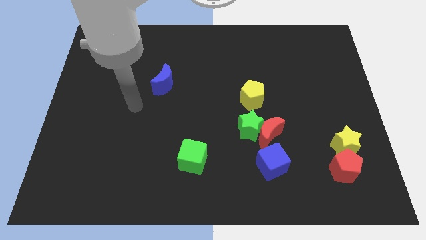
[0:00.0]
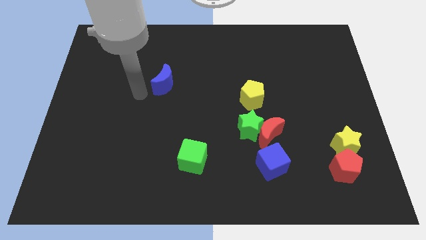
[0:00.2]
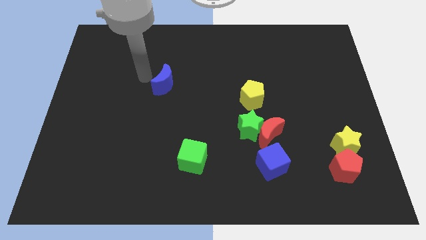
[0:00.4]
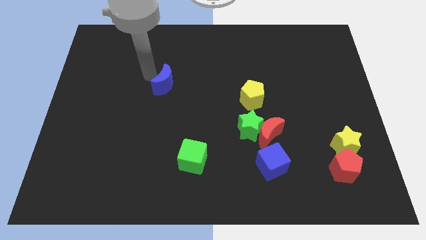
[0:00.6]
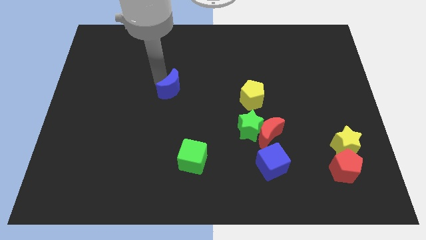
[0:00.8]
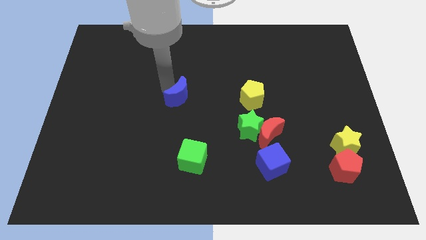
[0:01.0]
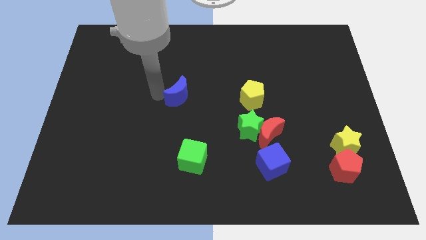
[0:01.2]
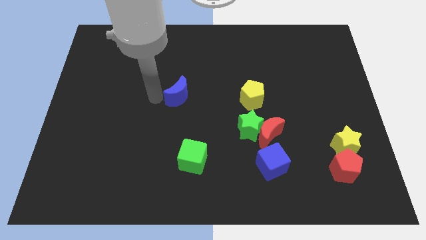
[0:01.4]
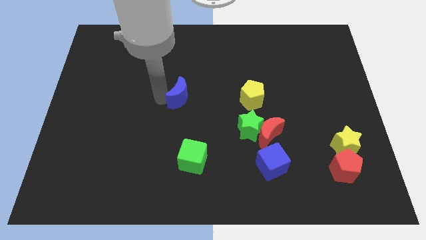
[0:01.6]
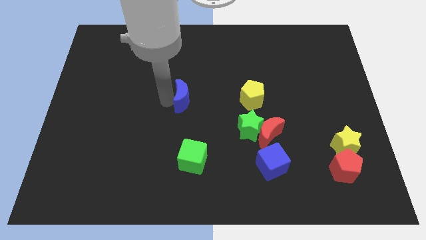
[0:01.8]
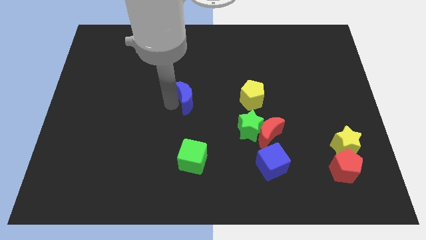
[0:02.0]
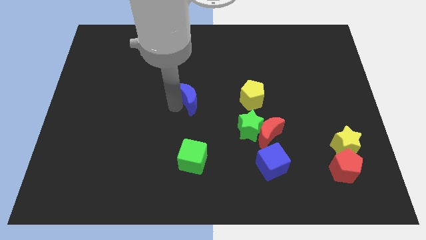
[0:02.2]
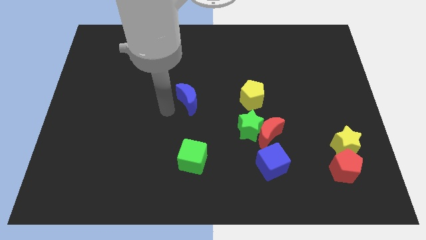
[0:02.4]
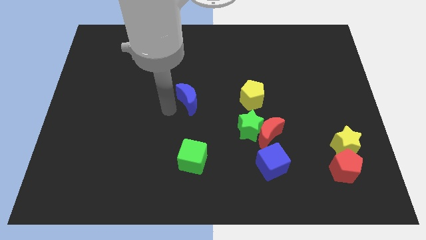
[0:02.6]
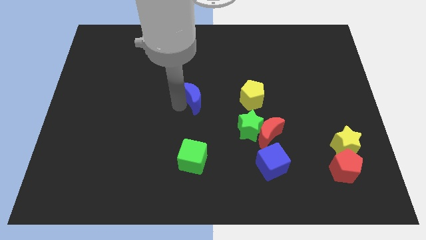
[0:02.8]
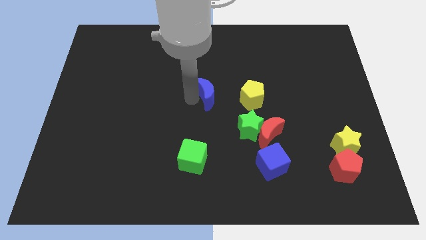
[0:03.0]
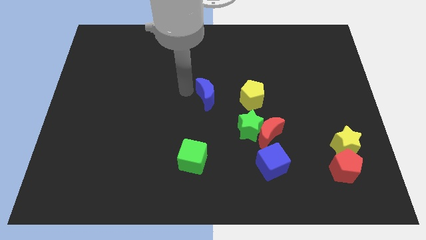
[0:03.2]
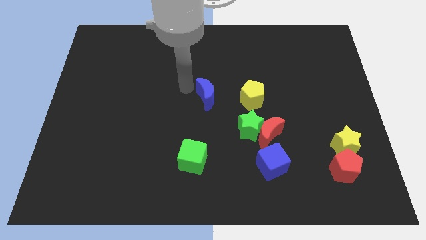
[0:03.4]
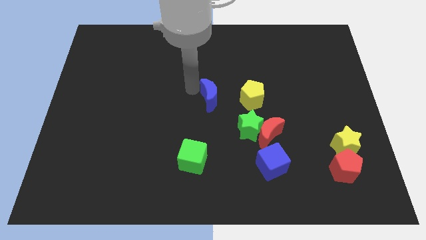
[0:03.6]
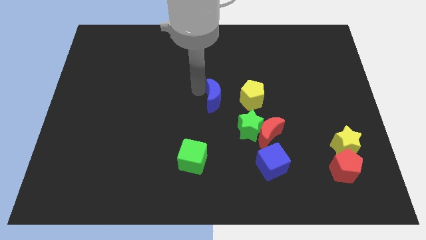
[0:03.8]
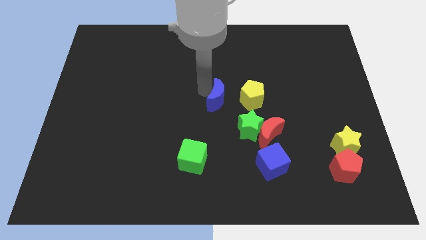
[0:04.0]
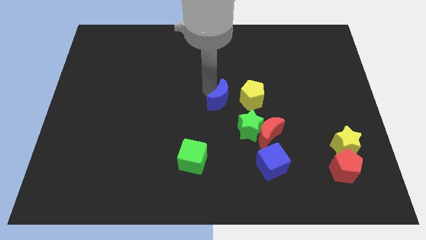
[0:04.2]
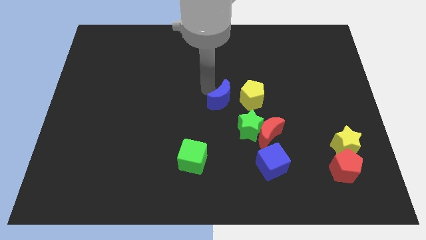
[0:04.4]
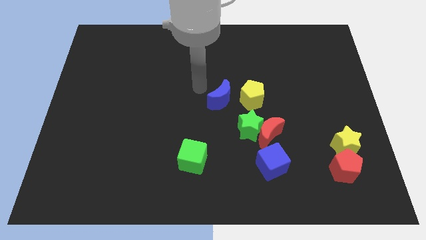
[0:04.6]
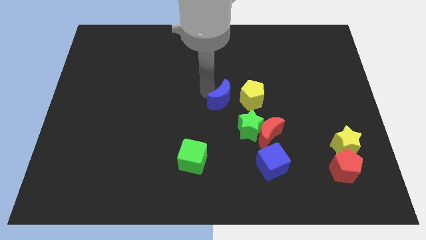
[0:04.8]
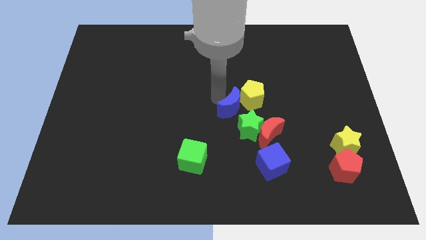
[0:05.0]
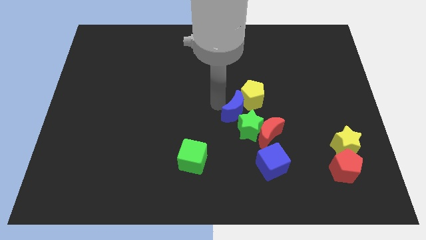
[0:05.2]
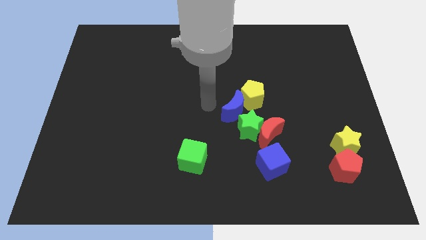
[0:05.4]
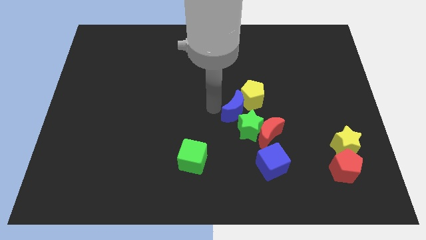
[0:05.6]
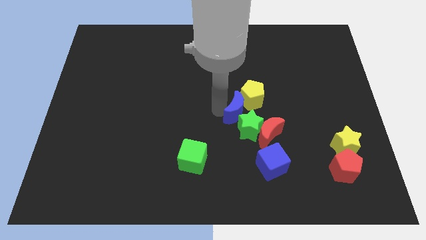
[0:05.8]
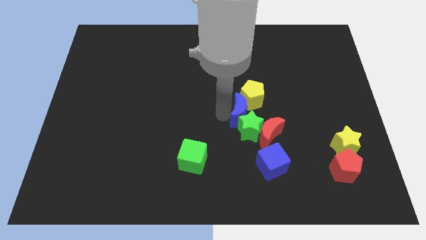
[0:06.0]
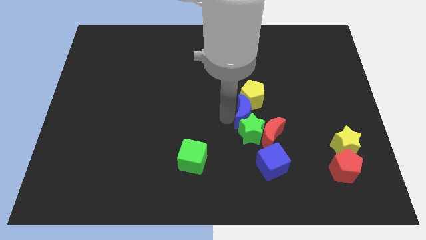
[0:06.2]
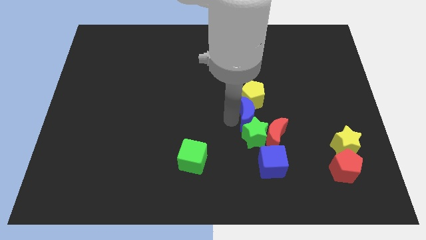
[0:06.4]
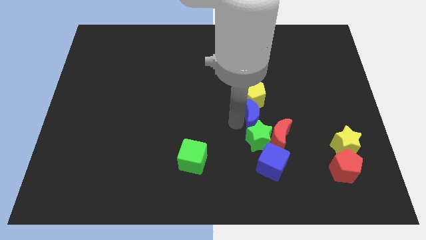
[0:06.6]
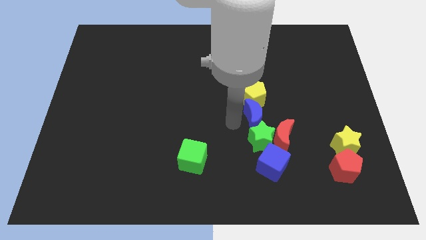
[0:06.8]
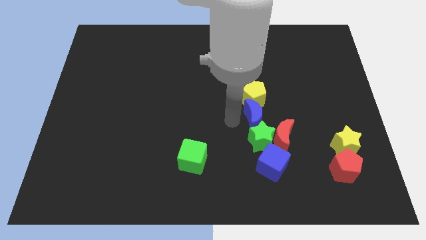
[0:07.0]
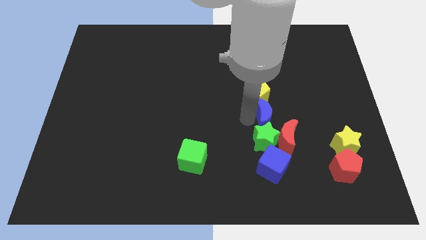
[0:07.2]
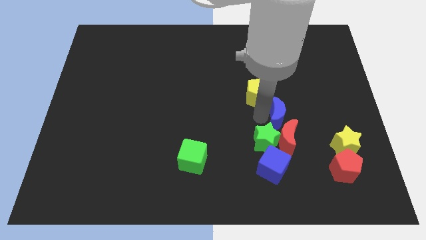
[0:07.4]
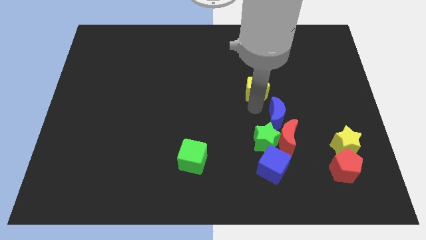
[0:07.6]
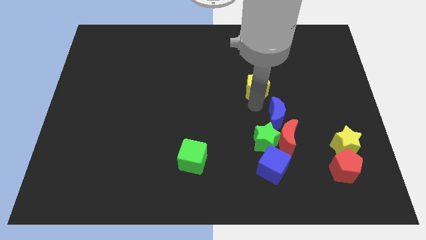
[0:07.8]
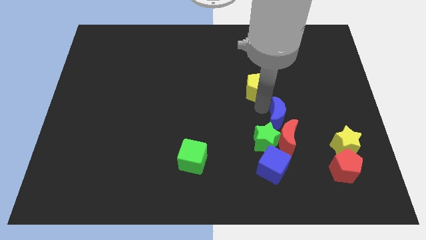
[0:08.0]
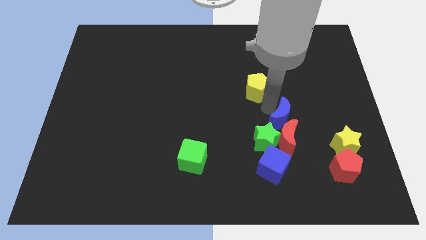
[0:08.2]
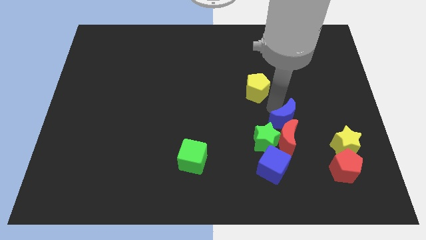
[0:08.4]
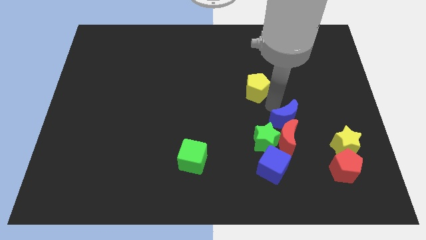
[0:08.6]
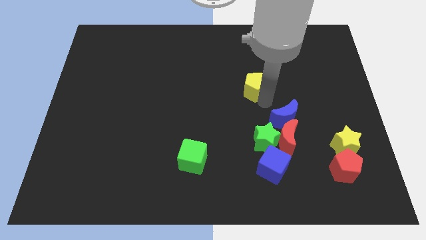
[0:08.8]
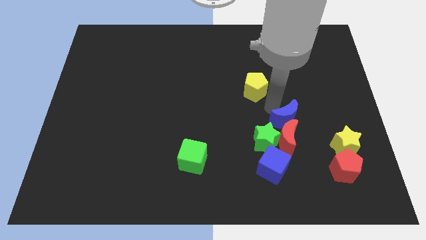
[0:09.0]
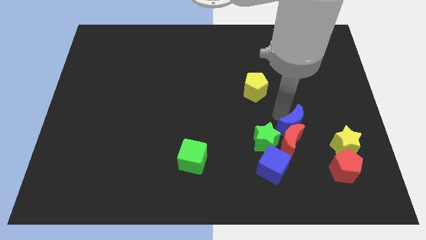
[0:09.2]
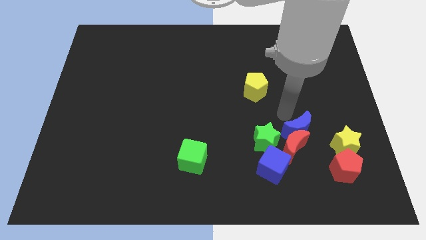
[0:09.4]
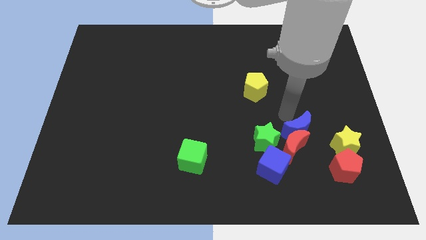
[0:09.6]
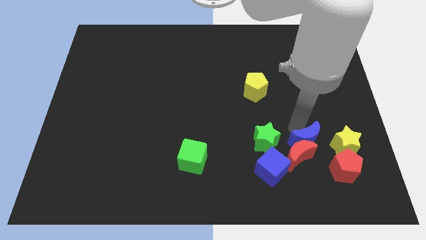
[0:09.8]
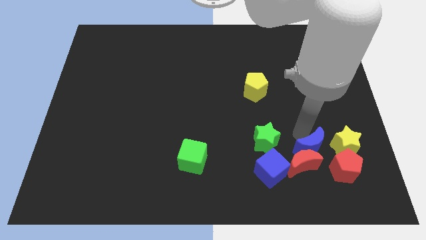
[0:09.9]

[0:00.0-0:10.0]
slide the blue moon to the bottom left side of the yellow star

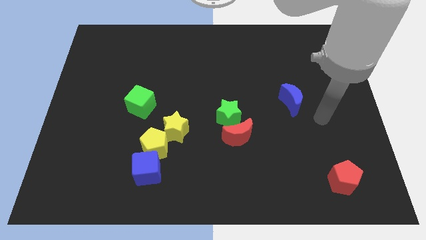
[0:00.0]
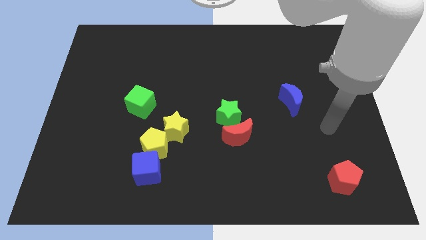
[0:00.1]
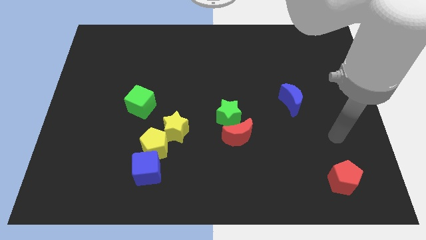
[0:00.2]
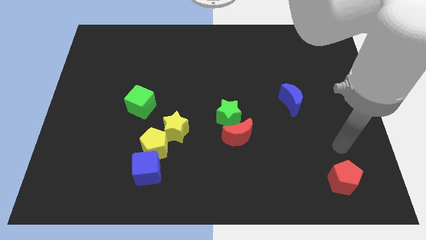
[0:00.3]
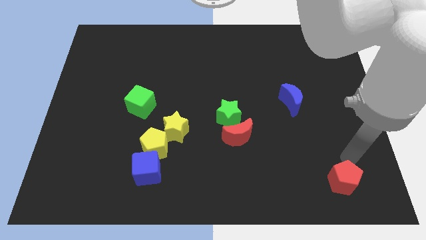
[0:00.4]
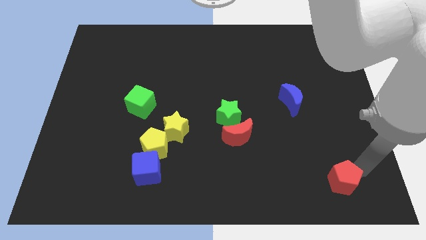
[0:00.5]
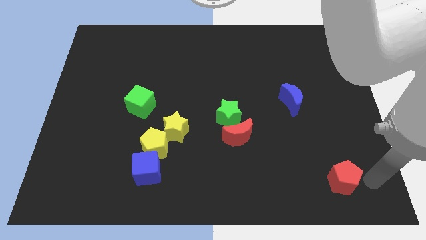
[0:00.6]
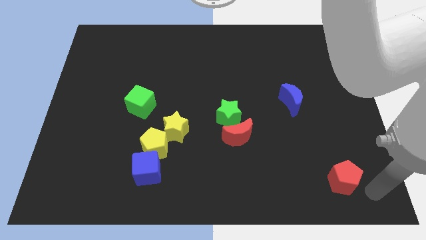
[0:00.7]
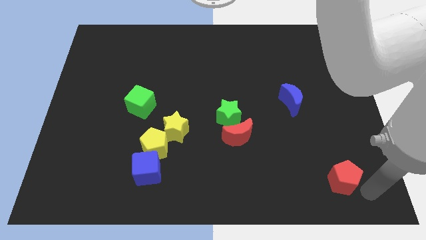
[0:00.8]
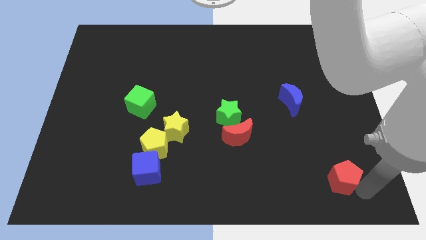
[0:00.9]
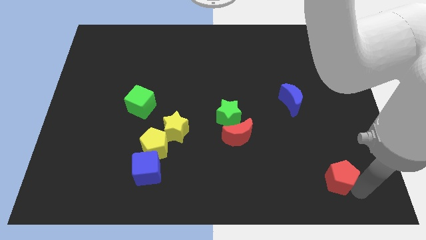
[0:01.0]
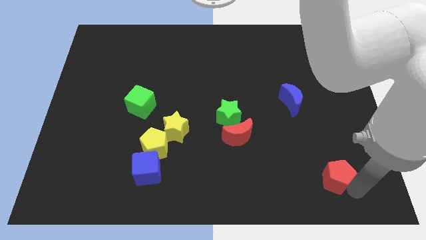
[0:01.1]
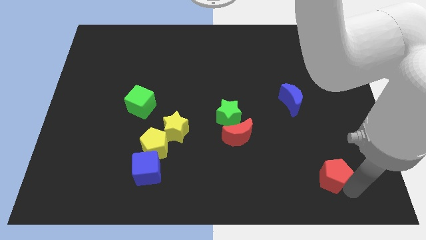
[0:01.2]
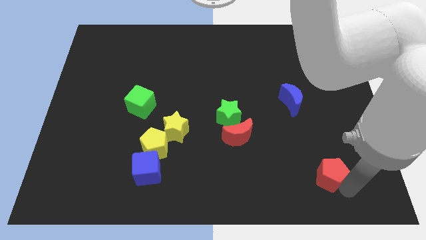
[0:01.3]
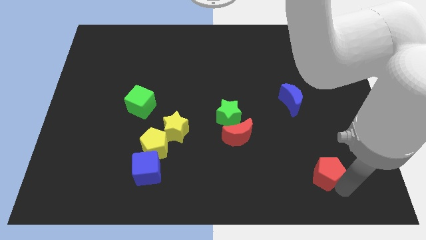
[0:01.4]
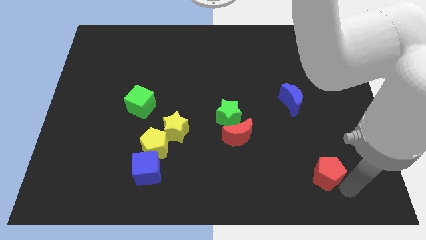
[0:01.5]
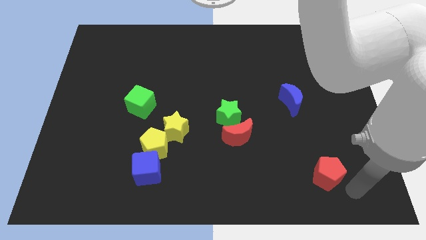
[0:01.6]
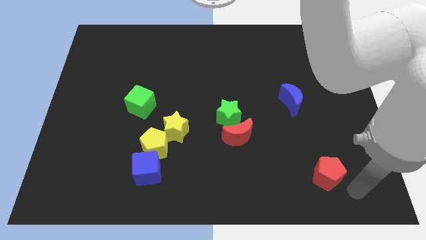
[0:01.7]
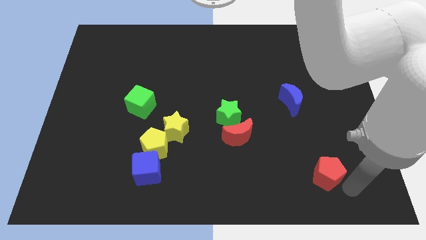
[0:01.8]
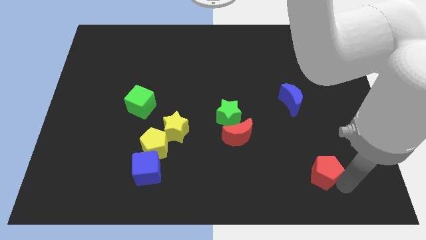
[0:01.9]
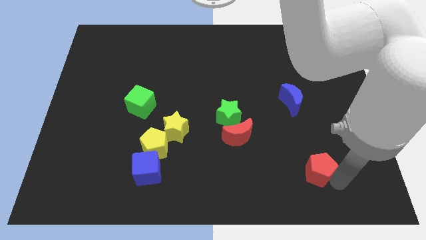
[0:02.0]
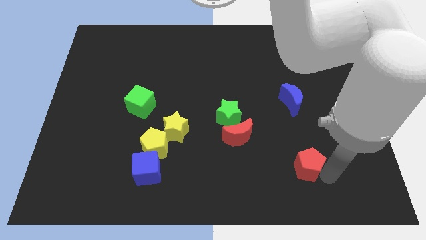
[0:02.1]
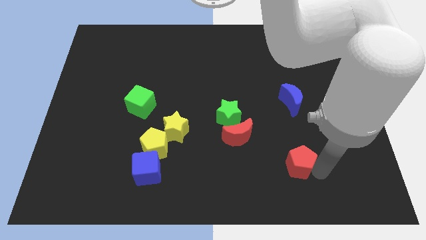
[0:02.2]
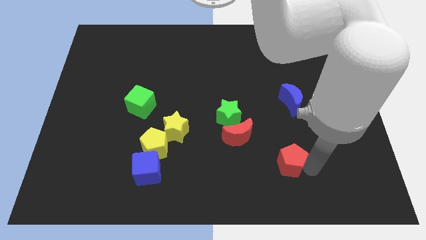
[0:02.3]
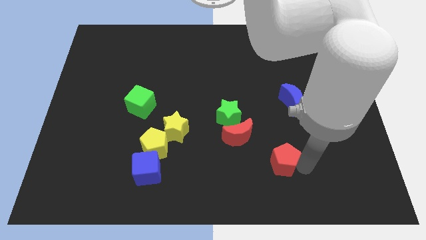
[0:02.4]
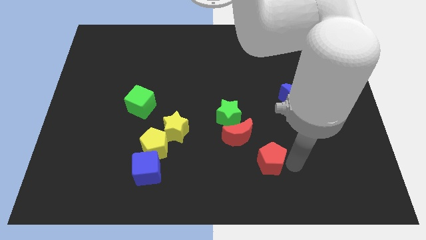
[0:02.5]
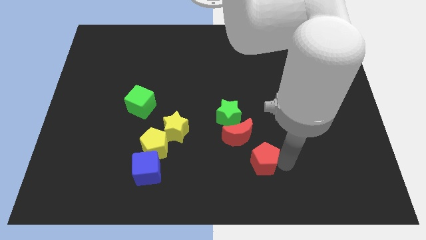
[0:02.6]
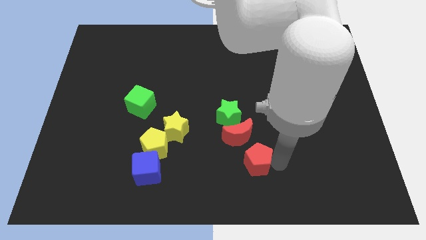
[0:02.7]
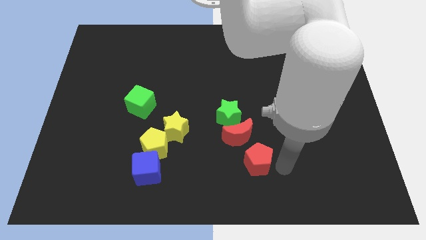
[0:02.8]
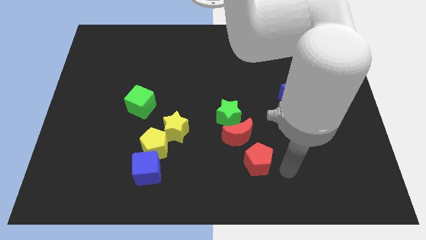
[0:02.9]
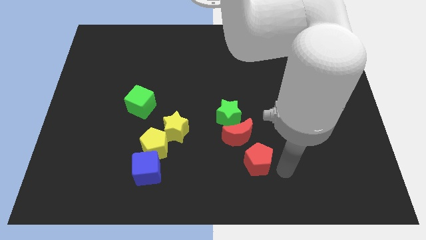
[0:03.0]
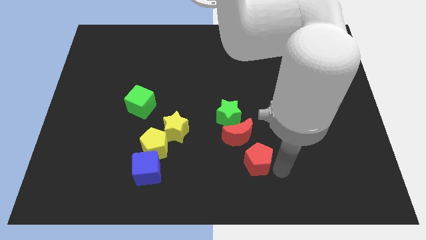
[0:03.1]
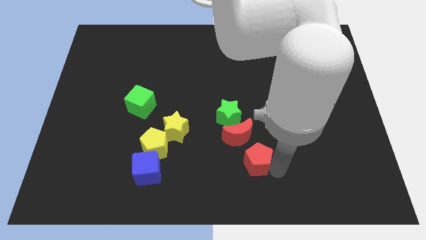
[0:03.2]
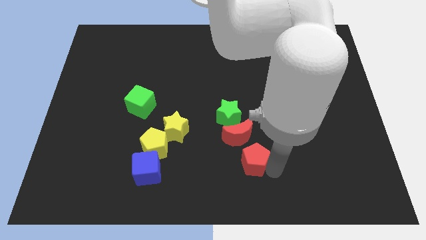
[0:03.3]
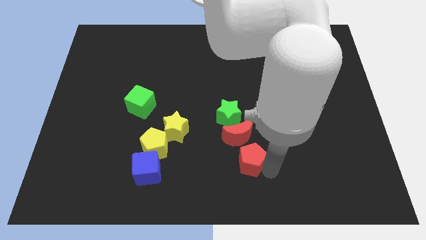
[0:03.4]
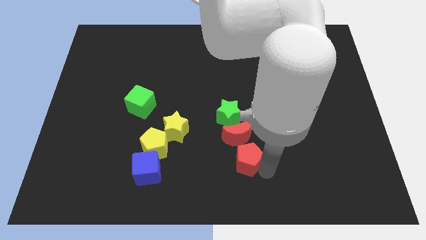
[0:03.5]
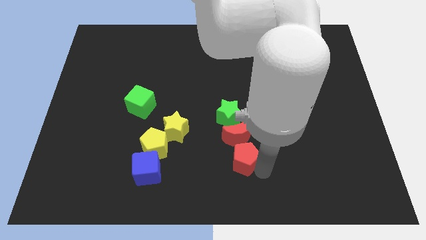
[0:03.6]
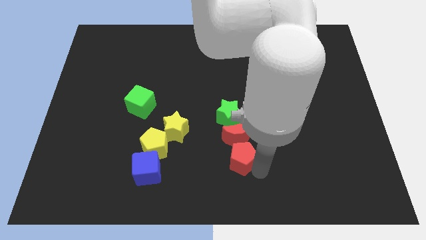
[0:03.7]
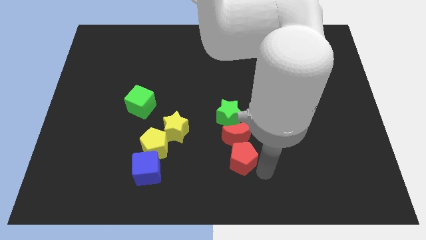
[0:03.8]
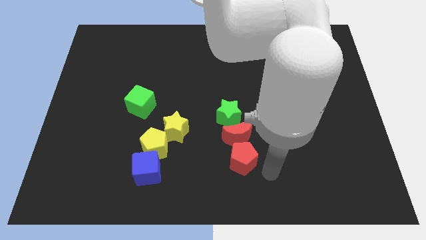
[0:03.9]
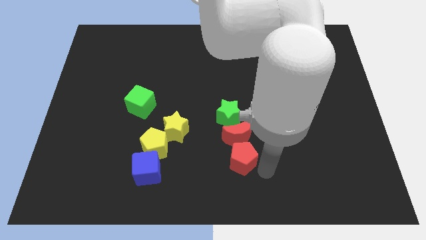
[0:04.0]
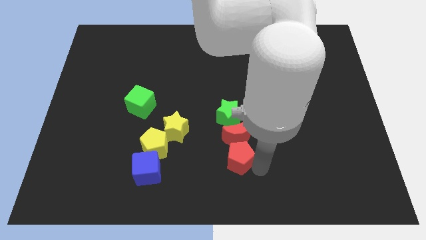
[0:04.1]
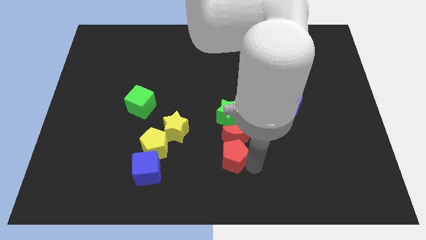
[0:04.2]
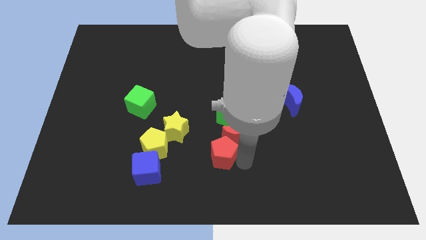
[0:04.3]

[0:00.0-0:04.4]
slide the red pentagon diagonally down and to the right of the yellow star
